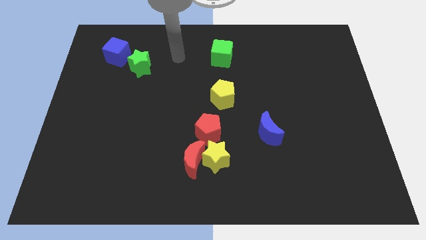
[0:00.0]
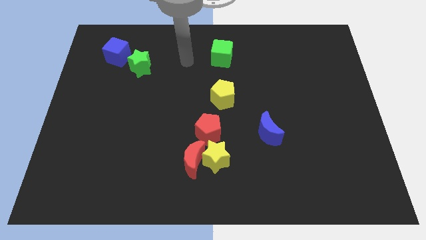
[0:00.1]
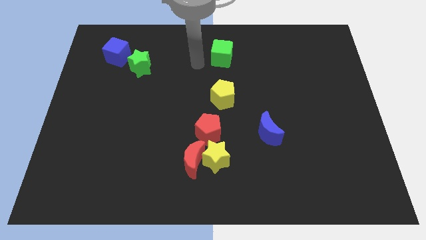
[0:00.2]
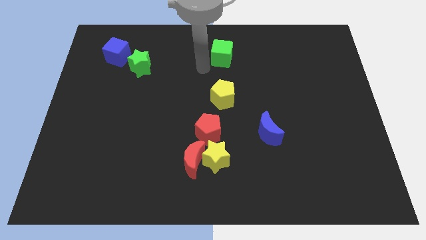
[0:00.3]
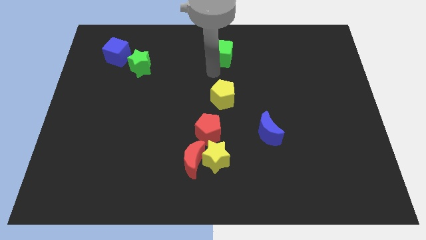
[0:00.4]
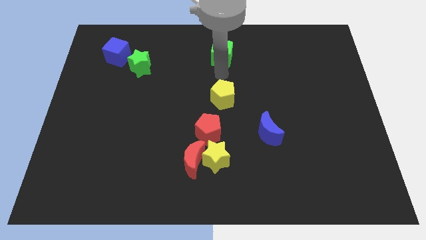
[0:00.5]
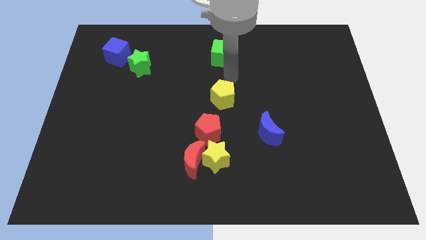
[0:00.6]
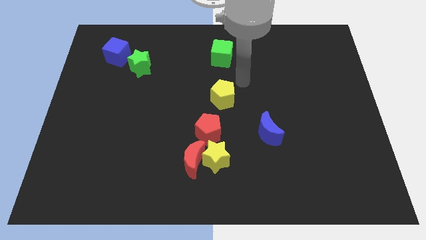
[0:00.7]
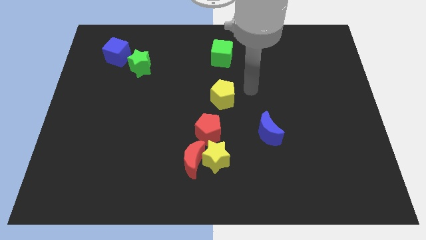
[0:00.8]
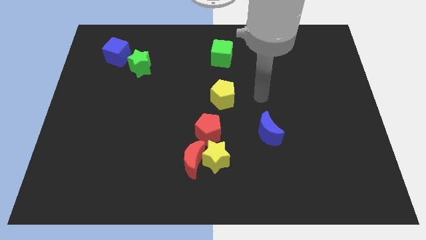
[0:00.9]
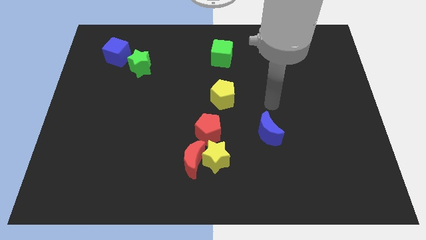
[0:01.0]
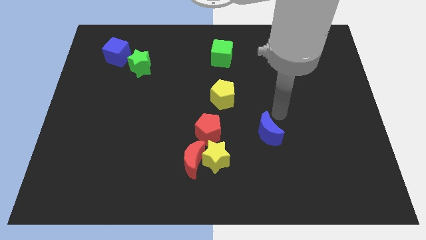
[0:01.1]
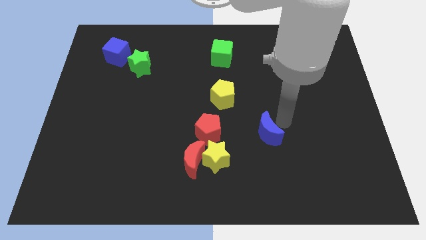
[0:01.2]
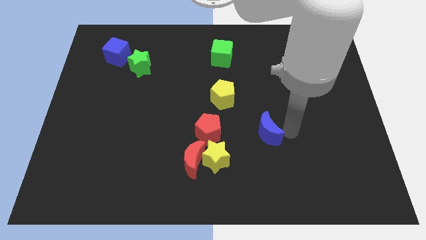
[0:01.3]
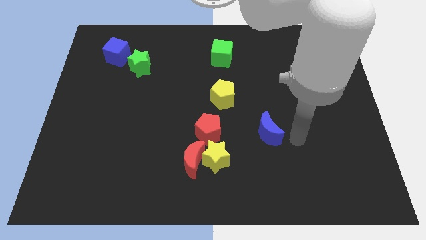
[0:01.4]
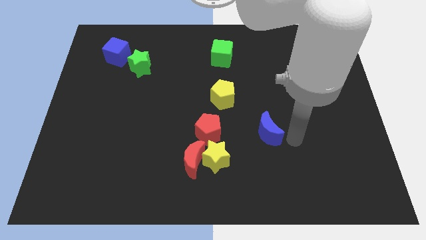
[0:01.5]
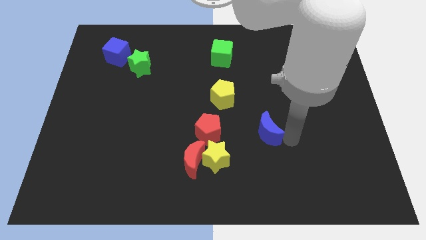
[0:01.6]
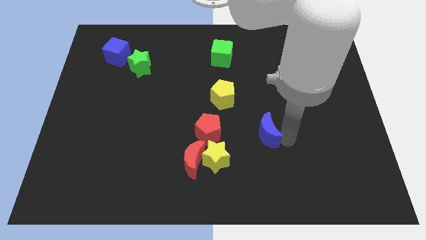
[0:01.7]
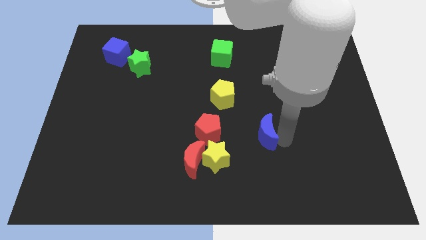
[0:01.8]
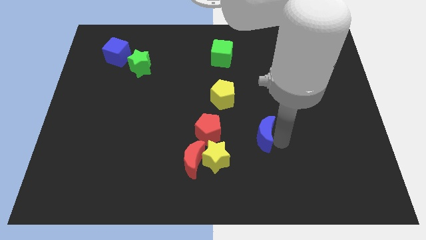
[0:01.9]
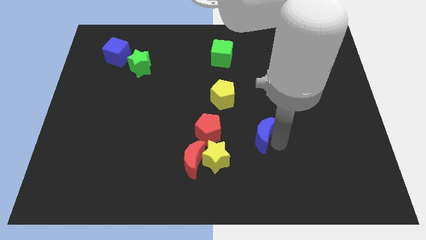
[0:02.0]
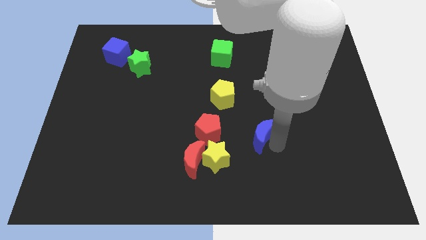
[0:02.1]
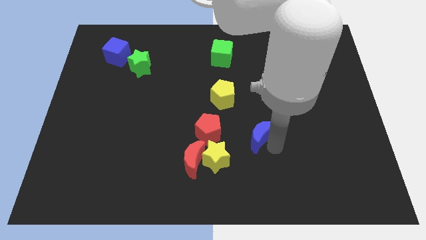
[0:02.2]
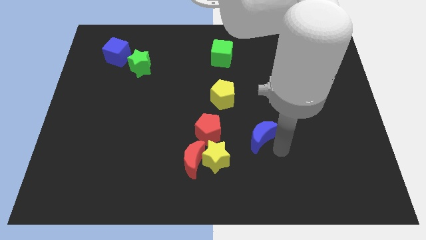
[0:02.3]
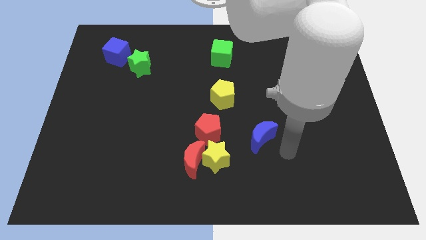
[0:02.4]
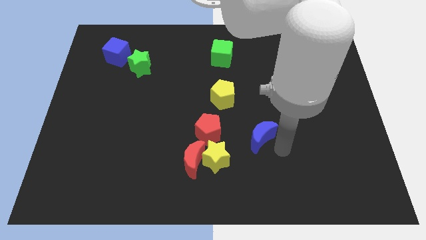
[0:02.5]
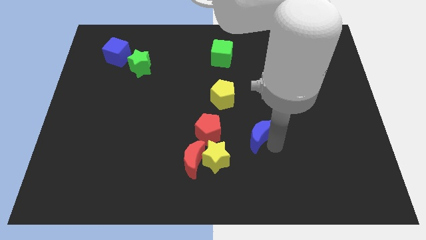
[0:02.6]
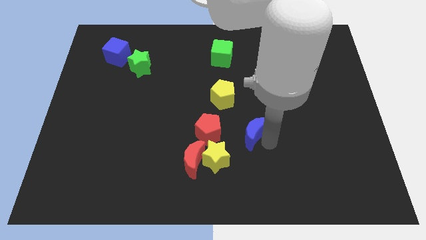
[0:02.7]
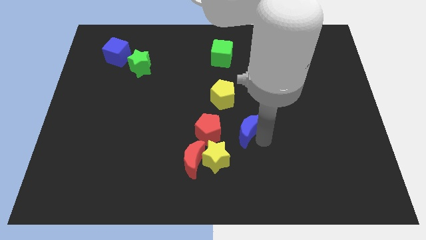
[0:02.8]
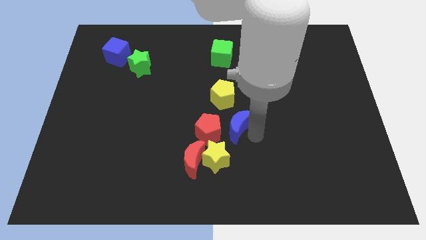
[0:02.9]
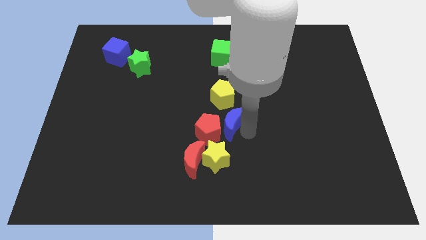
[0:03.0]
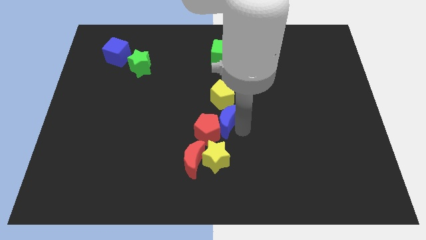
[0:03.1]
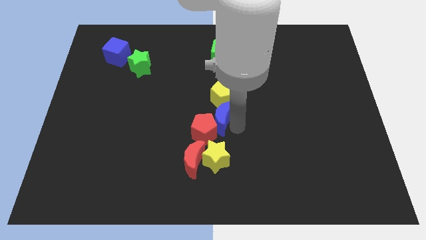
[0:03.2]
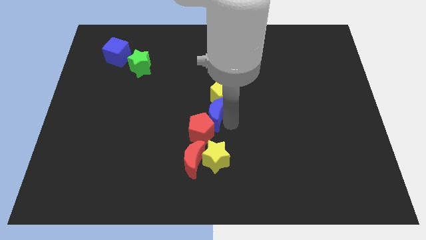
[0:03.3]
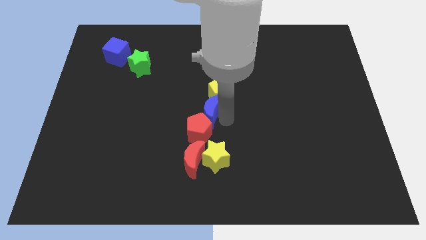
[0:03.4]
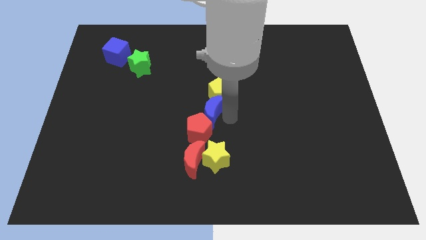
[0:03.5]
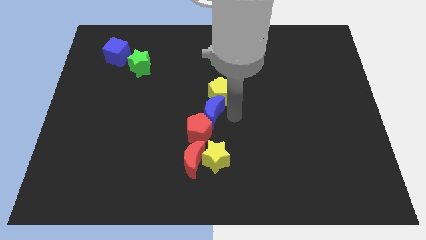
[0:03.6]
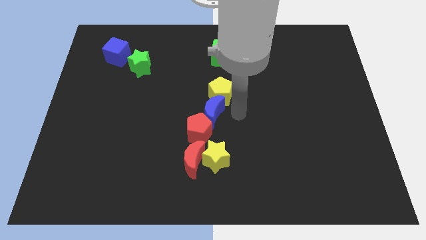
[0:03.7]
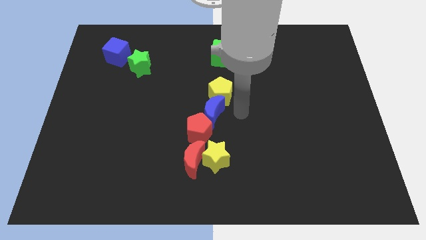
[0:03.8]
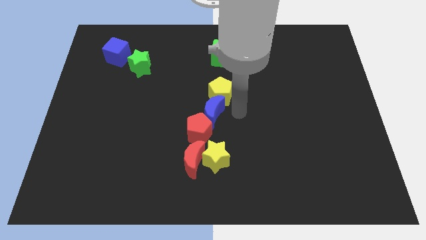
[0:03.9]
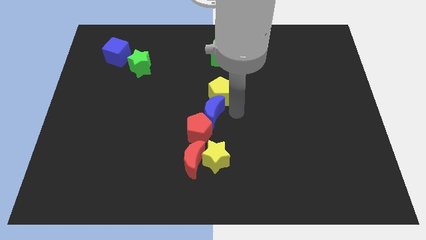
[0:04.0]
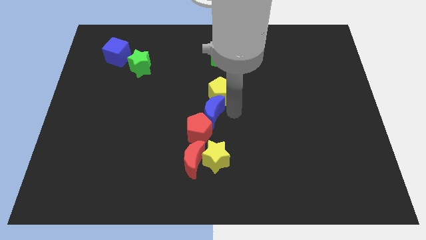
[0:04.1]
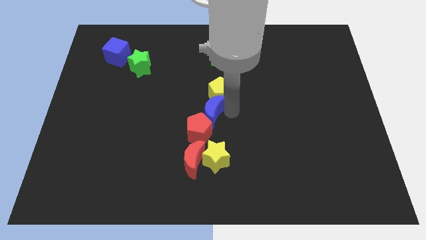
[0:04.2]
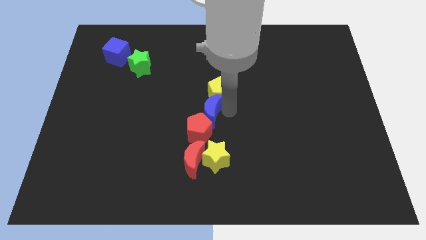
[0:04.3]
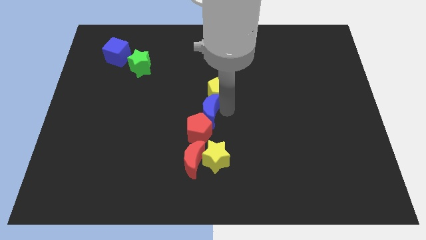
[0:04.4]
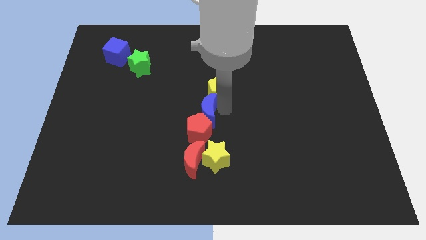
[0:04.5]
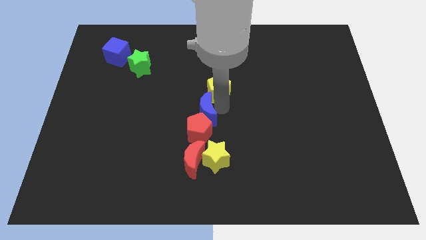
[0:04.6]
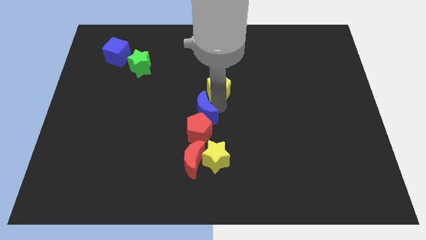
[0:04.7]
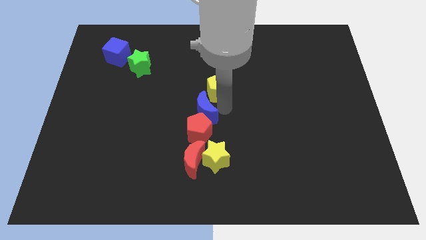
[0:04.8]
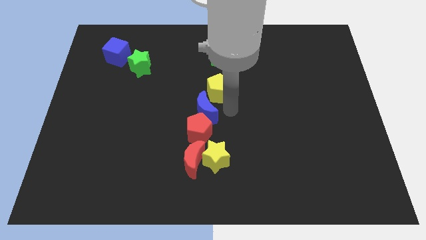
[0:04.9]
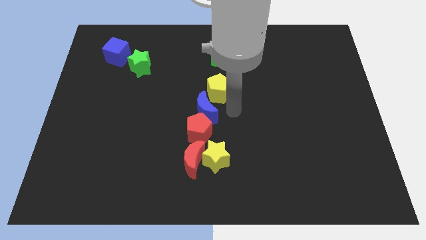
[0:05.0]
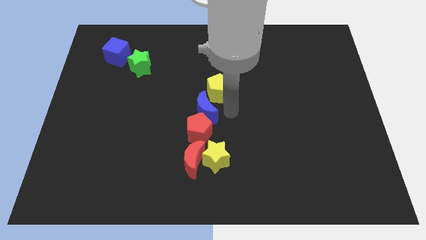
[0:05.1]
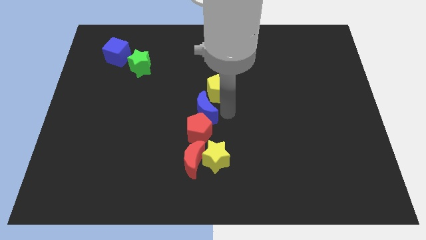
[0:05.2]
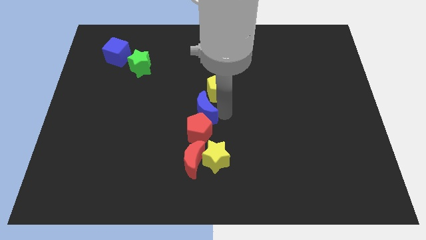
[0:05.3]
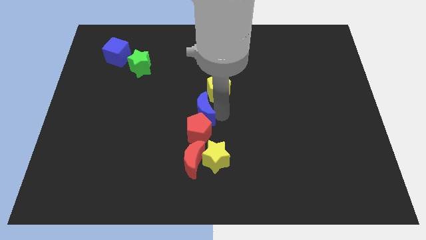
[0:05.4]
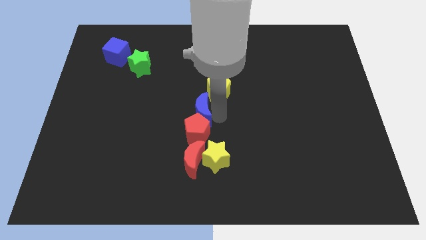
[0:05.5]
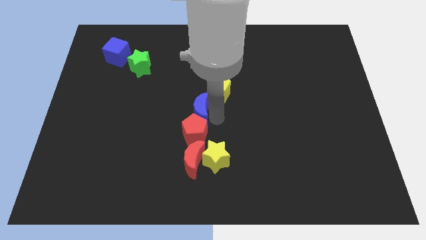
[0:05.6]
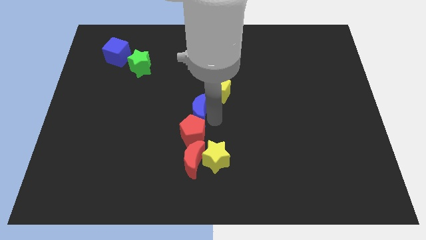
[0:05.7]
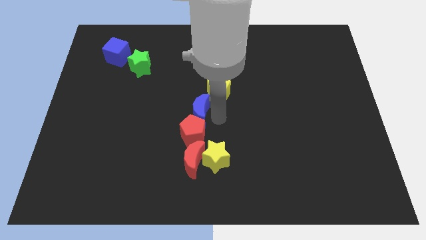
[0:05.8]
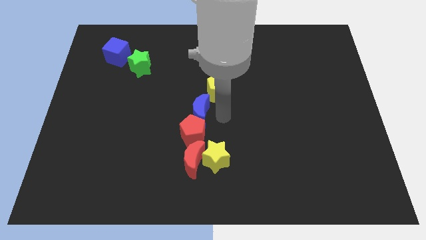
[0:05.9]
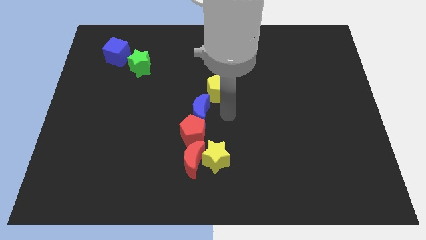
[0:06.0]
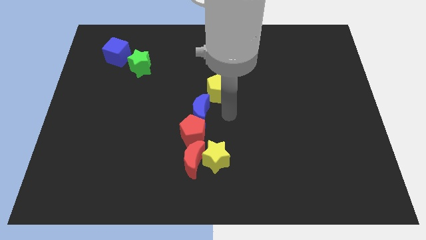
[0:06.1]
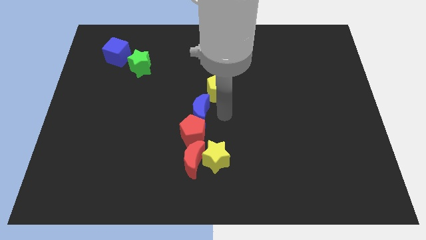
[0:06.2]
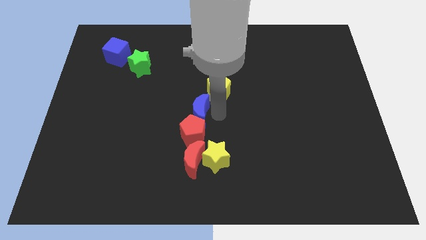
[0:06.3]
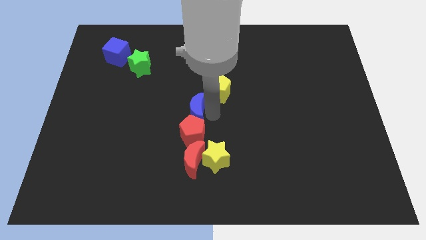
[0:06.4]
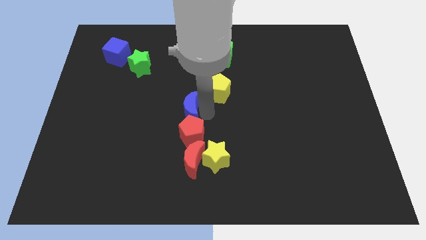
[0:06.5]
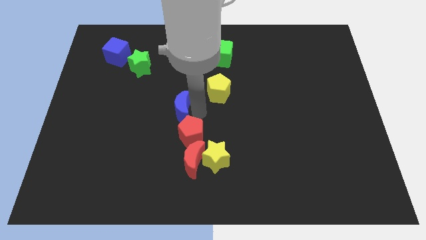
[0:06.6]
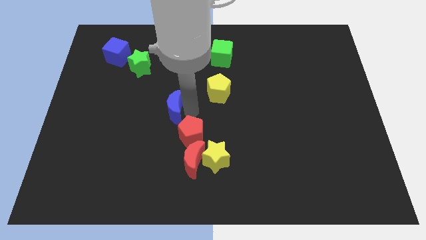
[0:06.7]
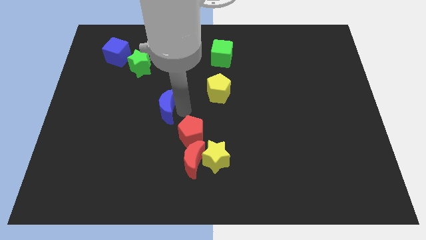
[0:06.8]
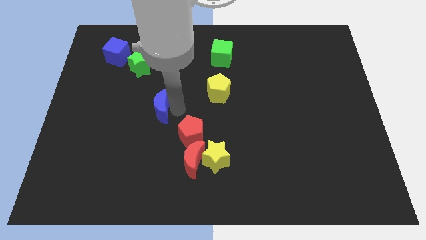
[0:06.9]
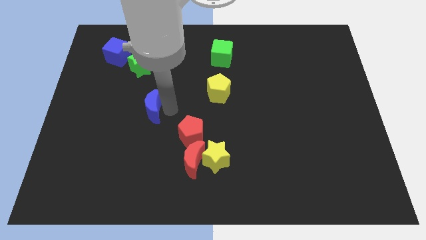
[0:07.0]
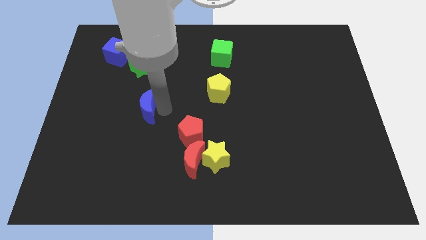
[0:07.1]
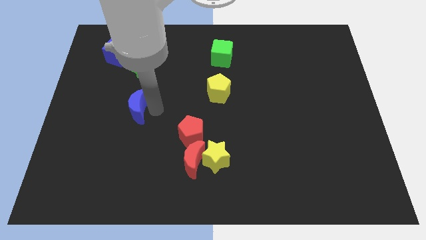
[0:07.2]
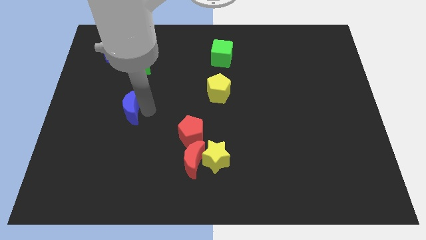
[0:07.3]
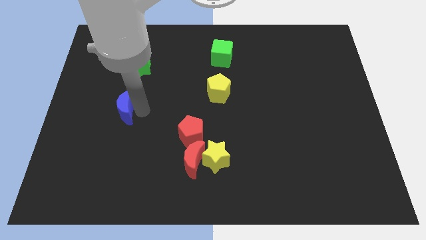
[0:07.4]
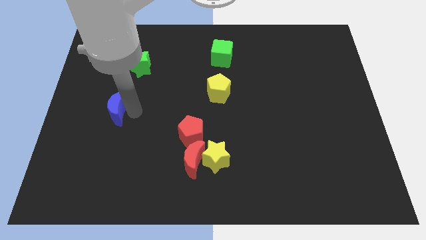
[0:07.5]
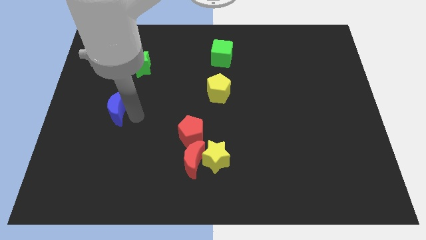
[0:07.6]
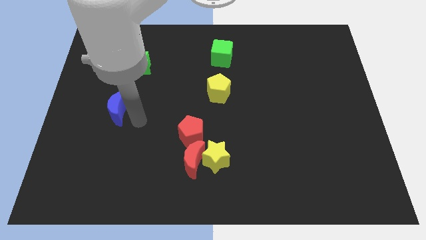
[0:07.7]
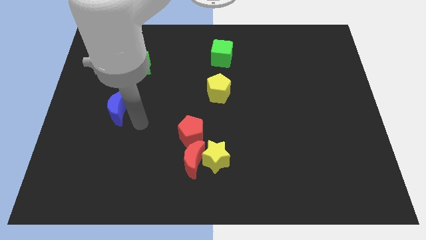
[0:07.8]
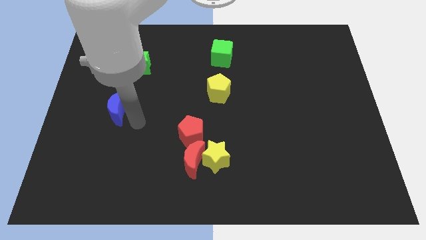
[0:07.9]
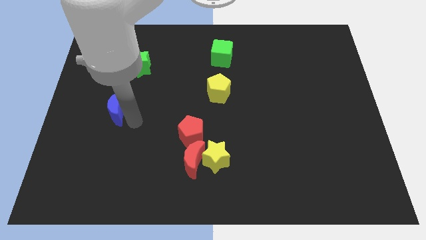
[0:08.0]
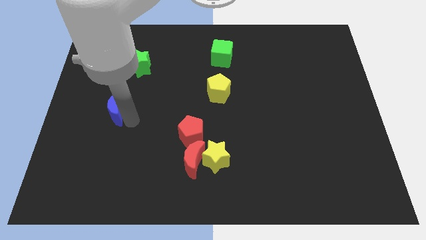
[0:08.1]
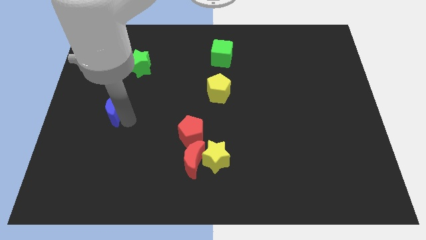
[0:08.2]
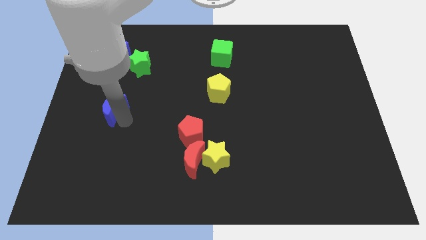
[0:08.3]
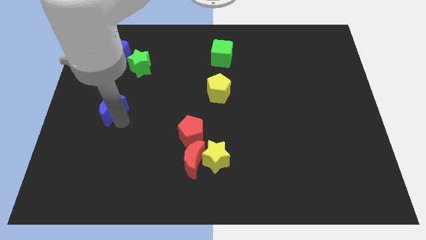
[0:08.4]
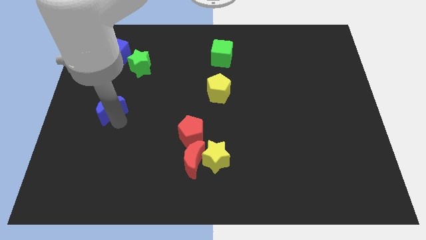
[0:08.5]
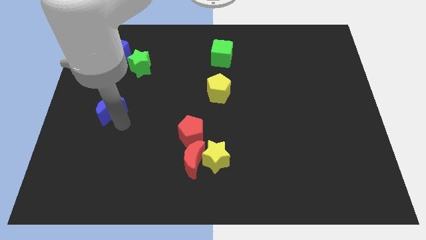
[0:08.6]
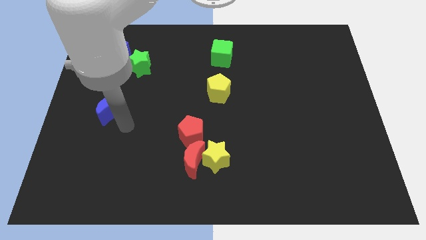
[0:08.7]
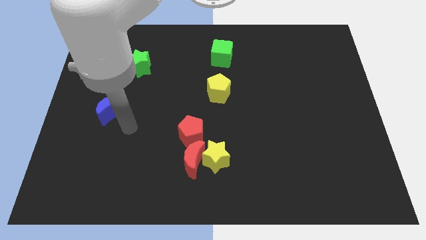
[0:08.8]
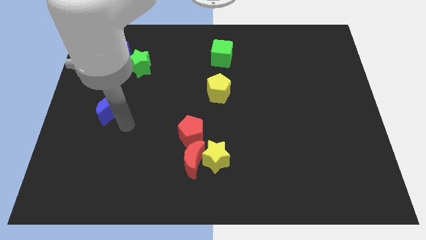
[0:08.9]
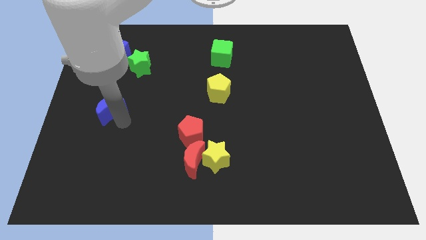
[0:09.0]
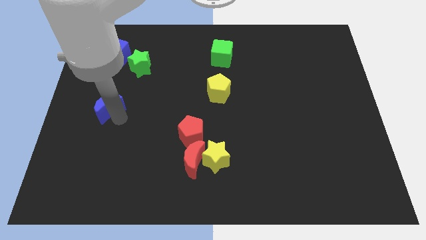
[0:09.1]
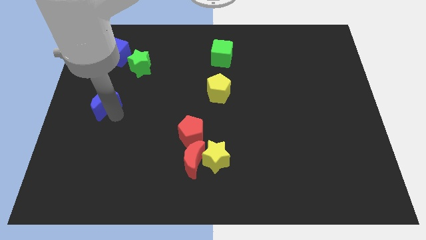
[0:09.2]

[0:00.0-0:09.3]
slide the blue moon to the left side
